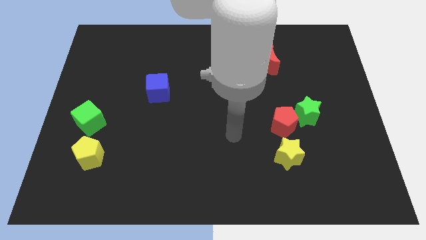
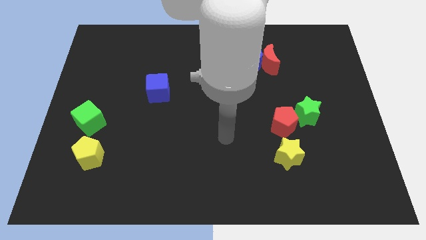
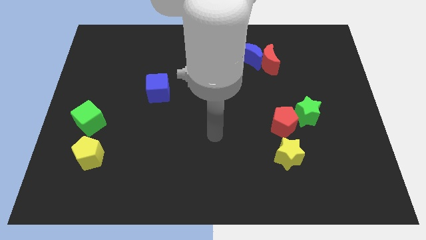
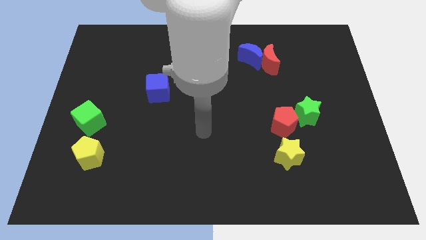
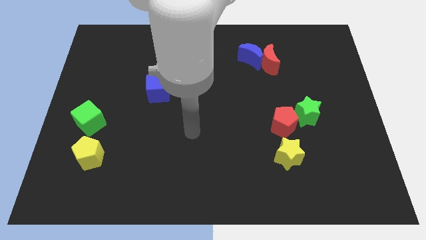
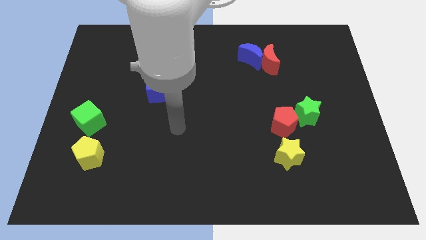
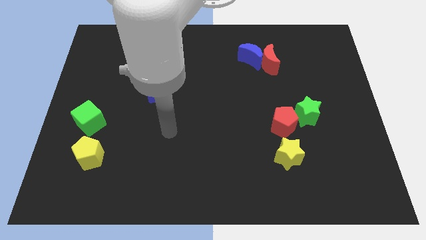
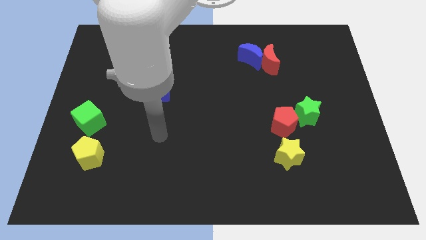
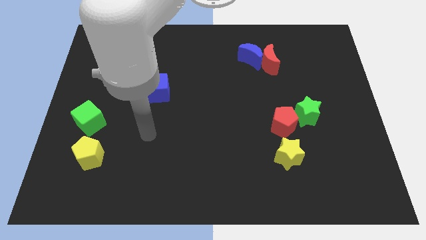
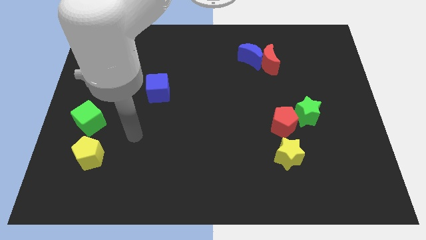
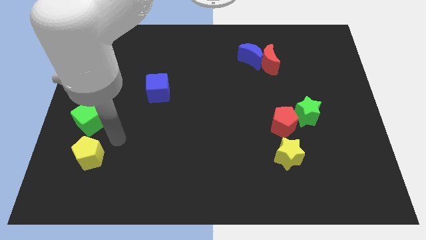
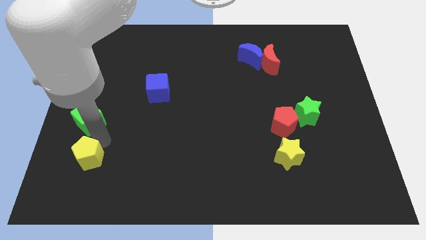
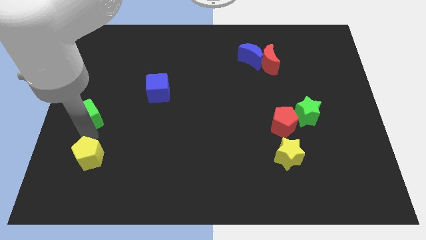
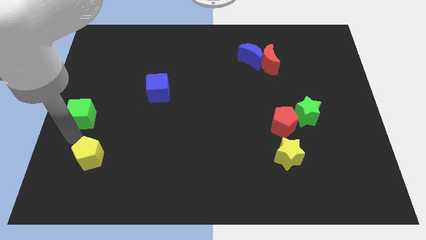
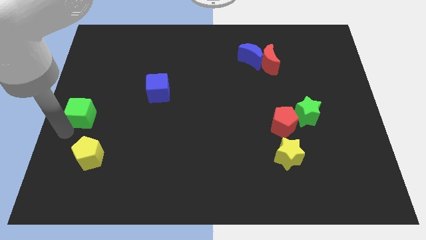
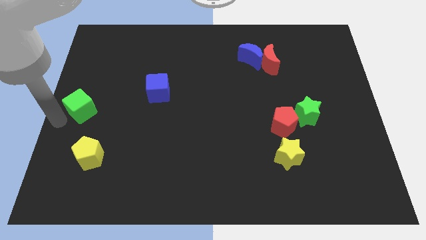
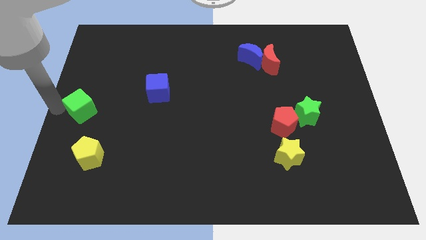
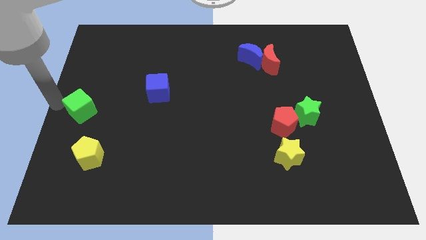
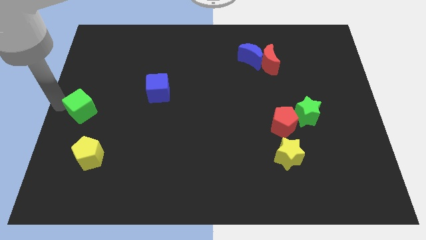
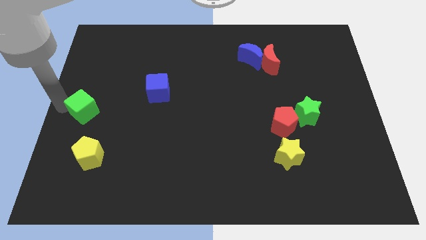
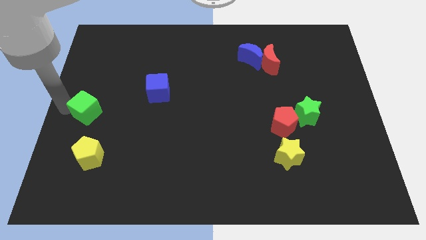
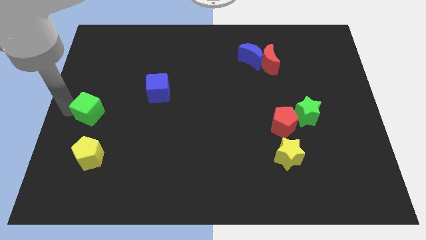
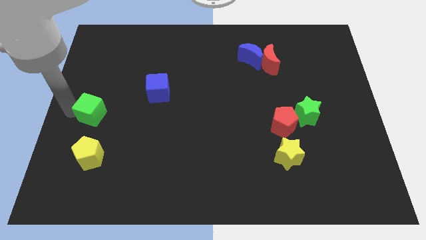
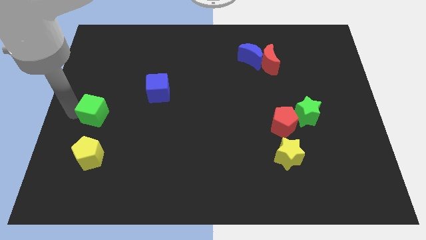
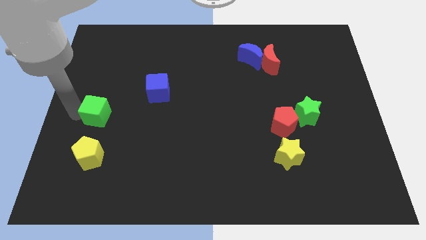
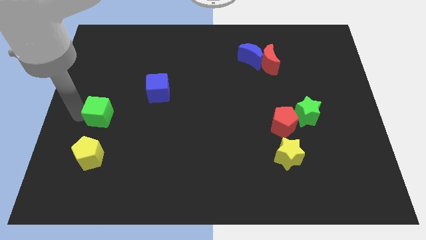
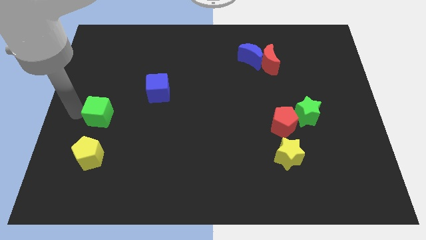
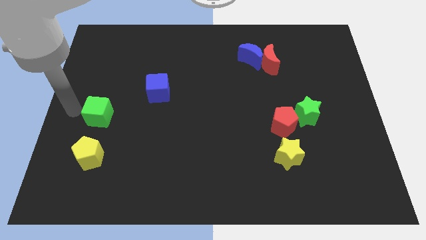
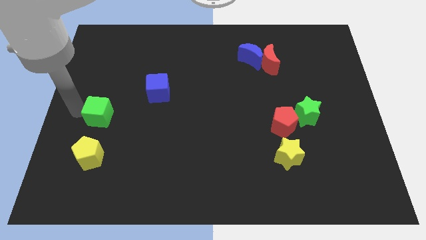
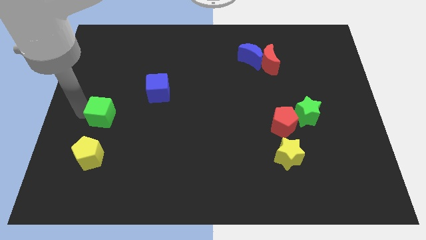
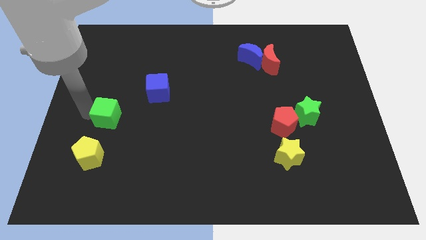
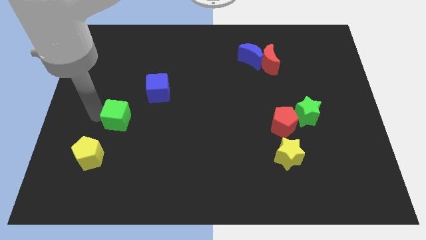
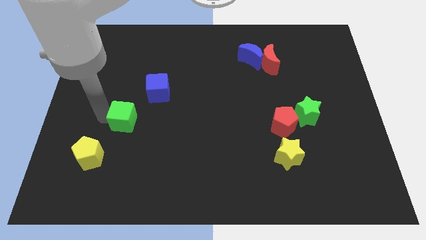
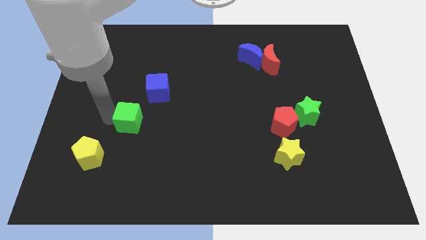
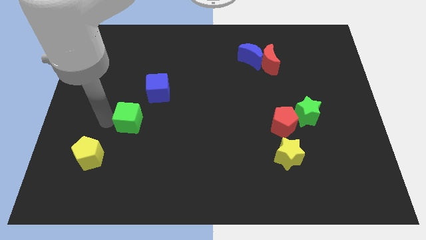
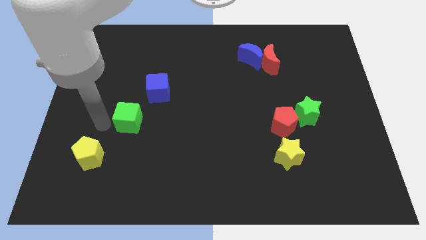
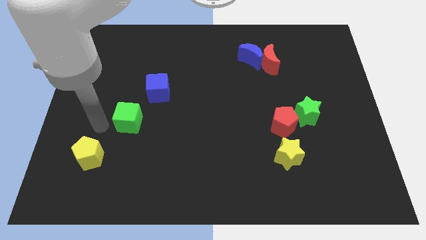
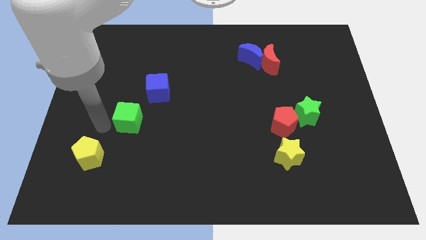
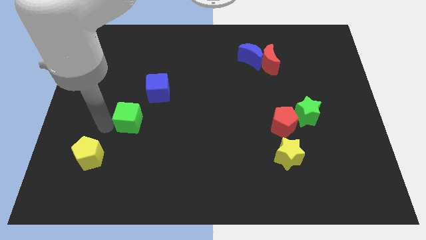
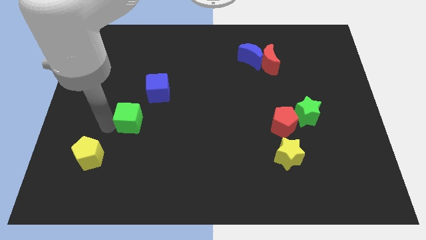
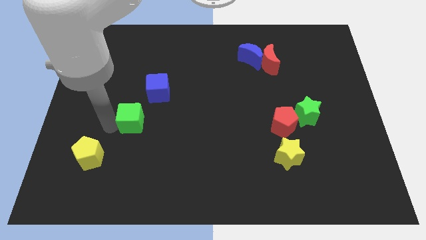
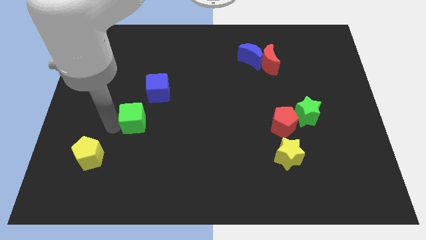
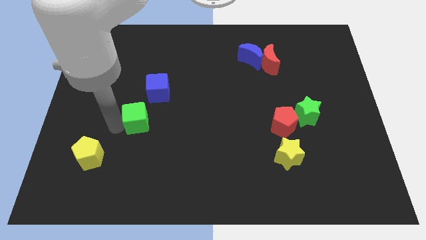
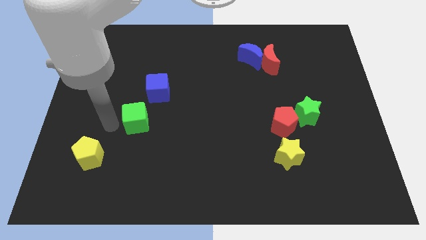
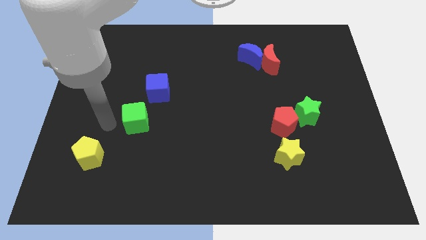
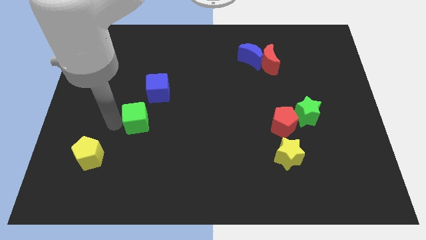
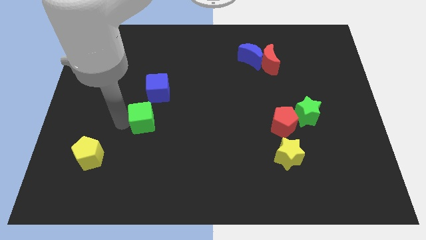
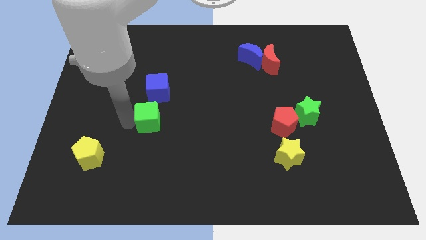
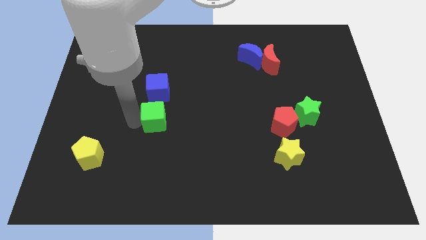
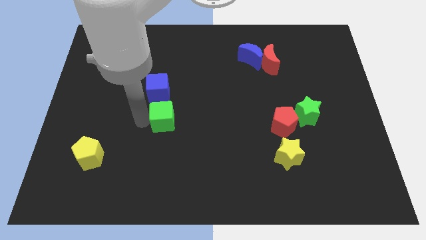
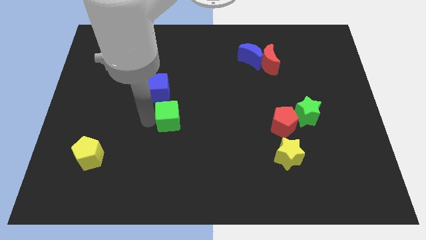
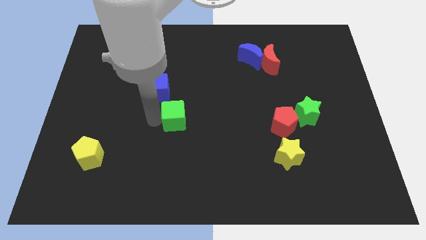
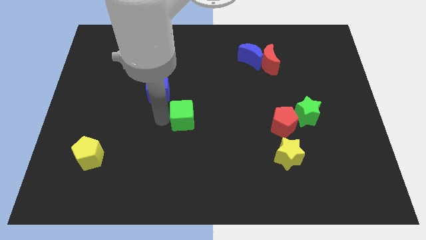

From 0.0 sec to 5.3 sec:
move the green cube right

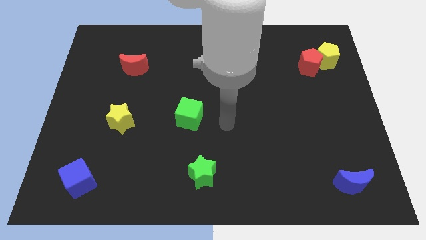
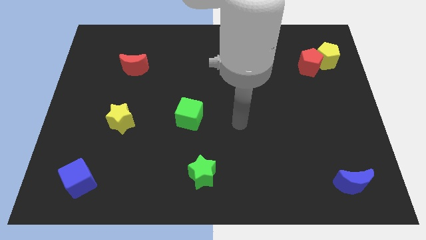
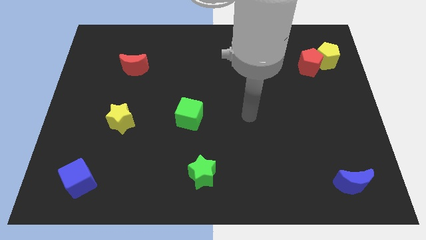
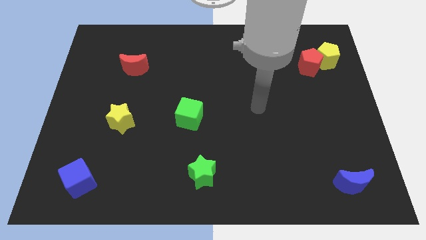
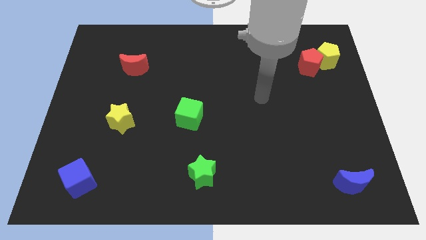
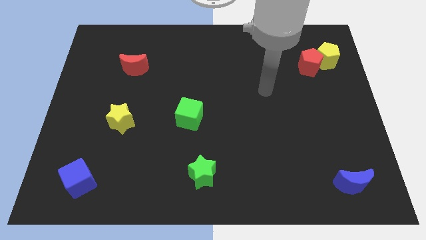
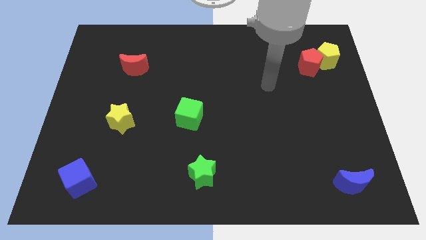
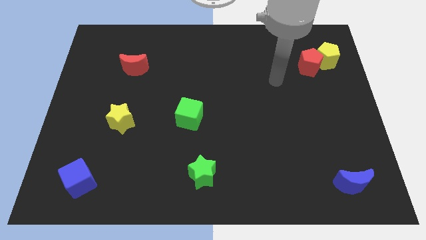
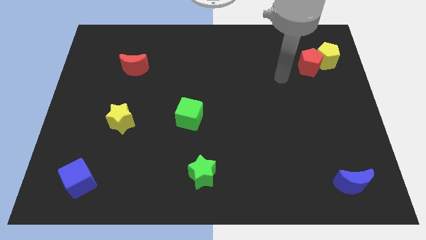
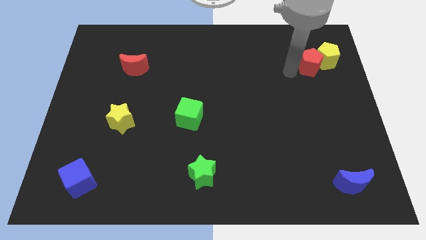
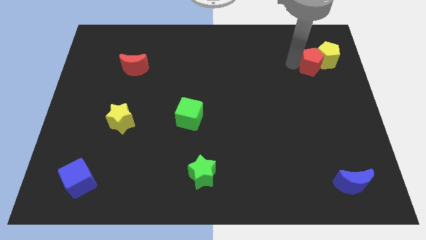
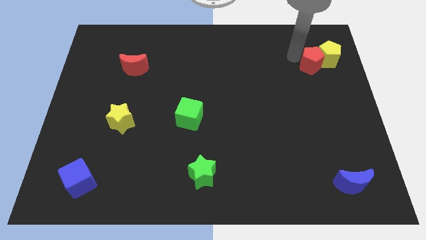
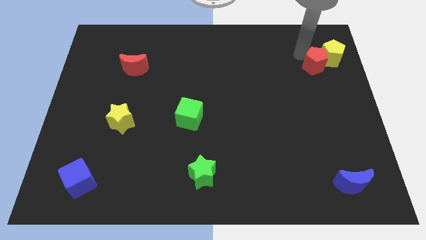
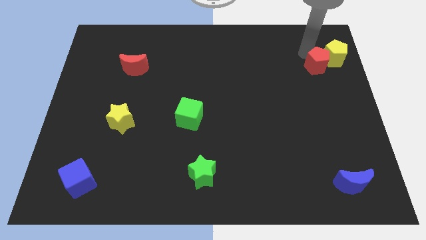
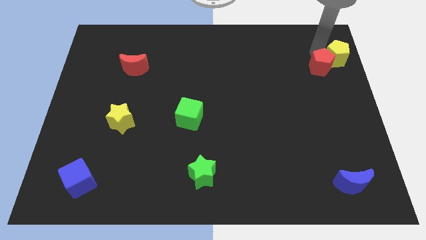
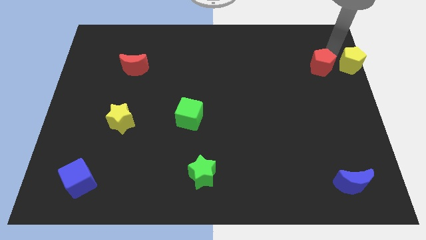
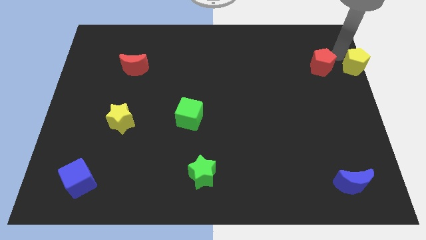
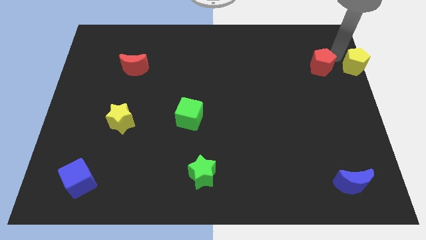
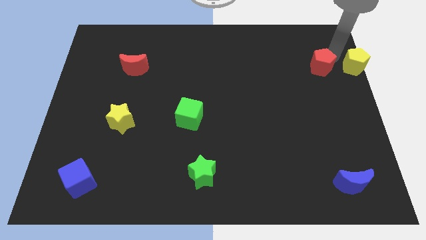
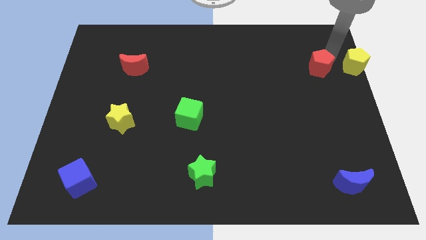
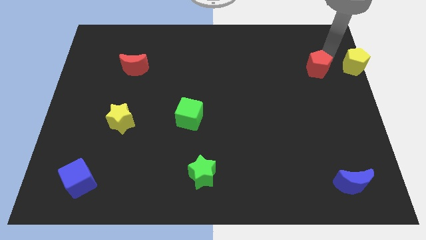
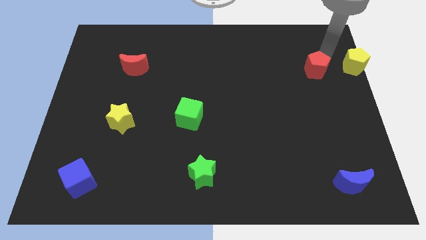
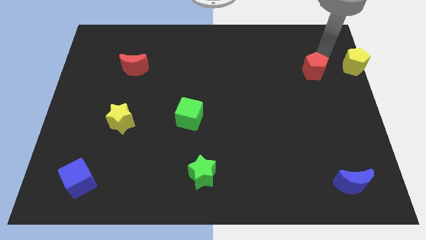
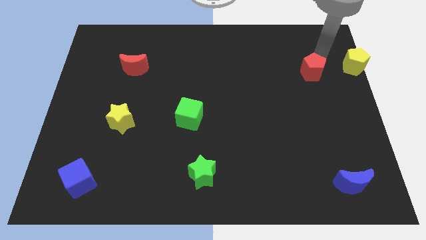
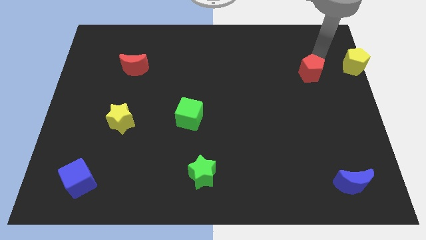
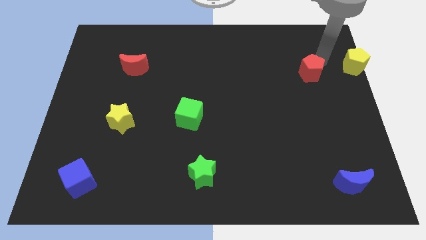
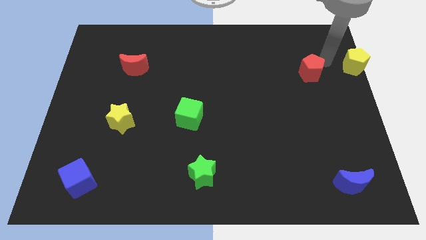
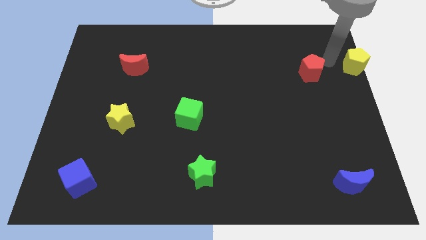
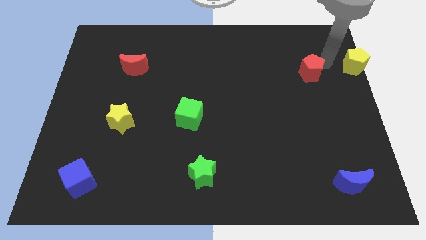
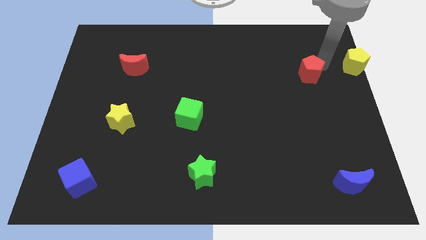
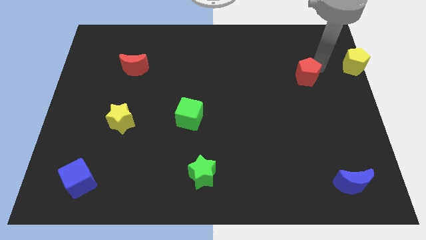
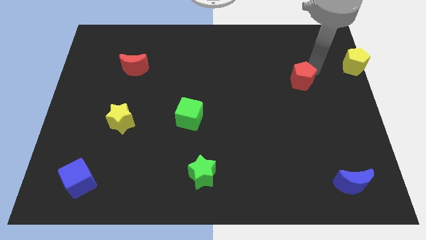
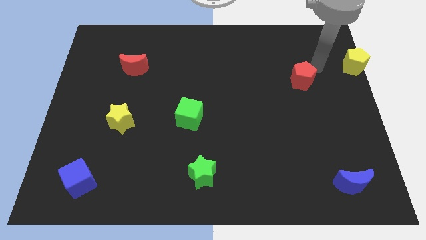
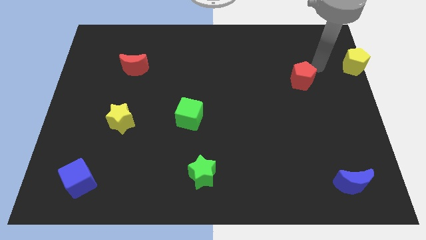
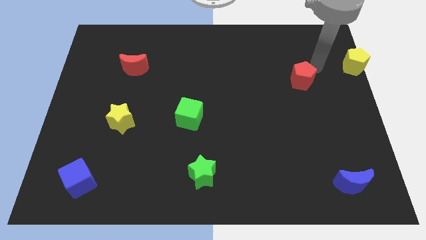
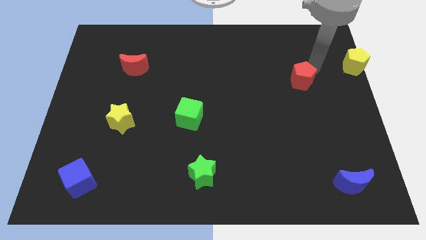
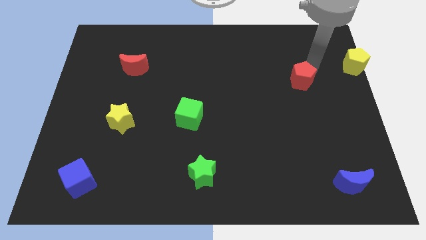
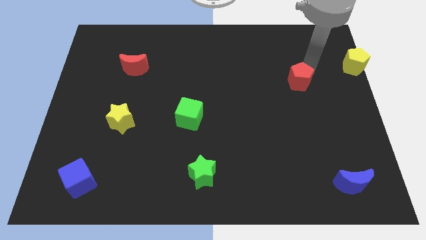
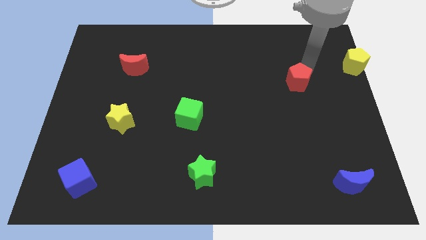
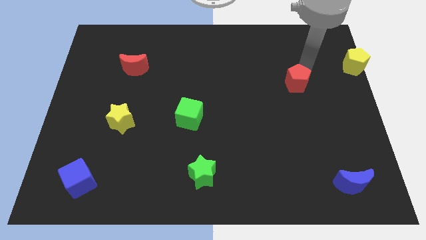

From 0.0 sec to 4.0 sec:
push the red pentagon somewhat down and then to the left
